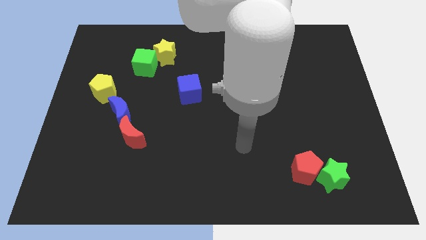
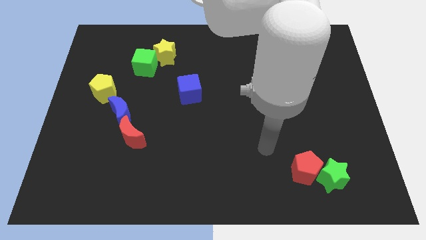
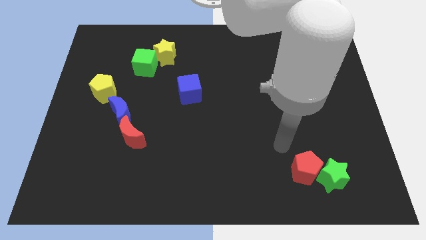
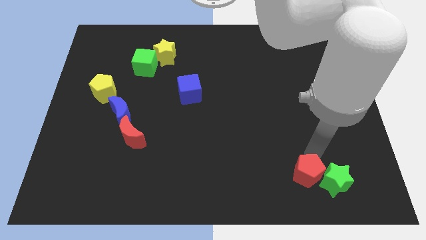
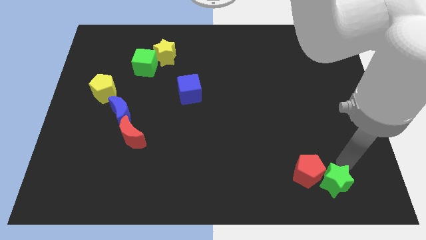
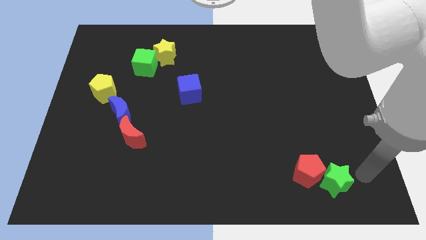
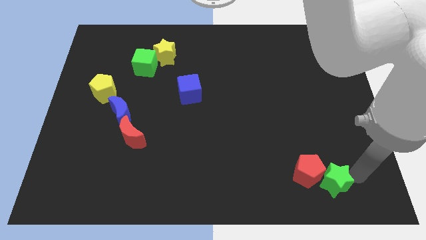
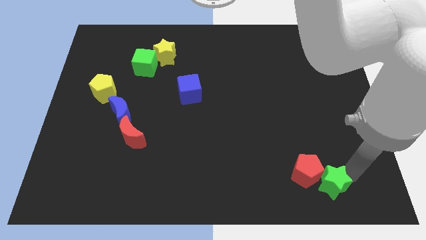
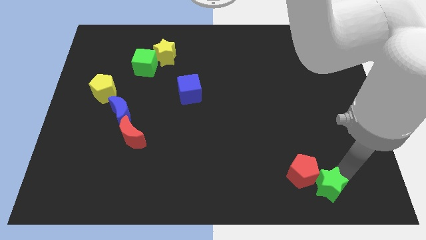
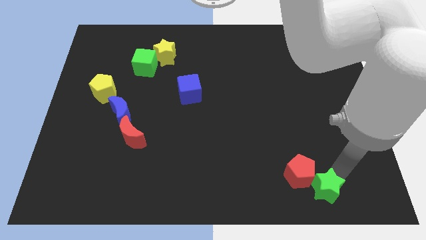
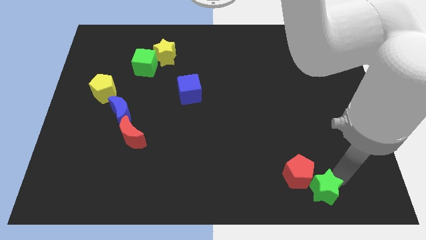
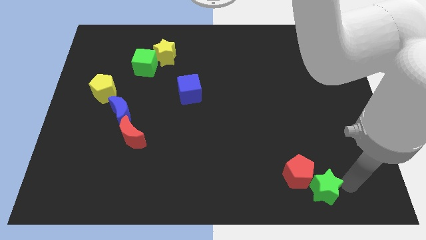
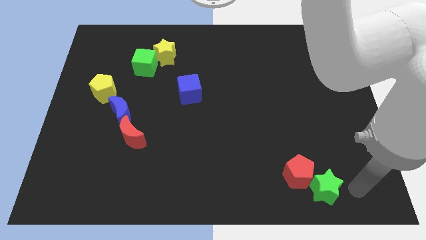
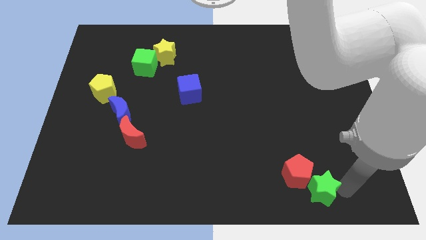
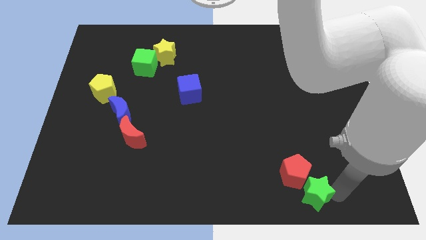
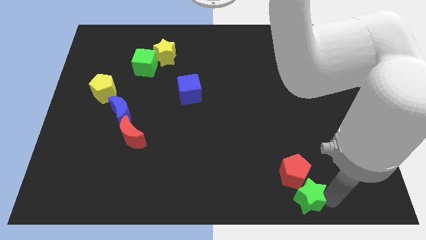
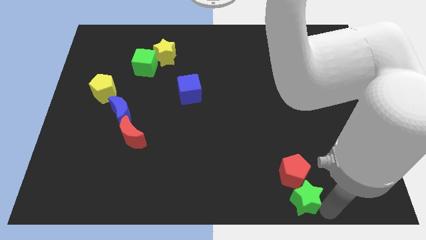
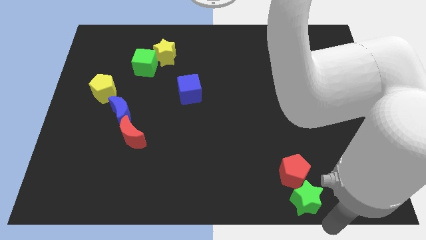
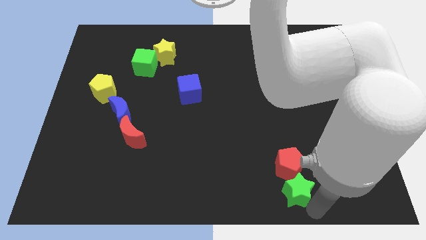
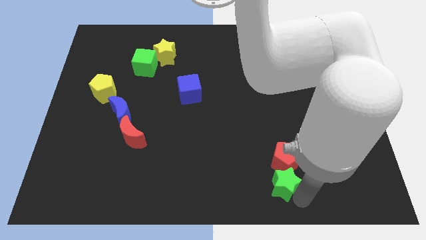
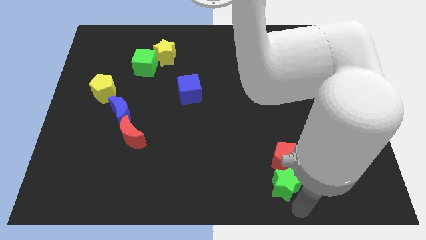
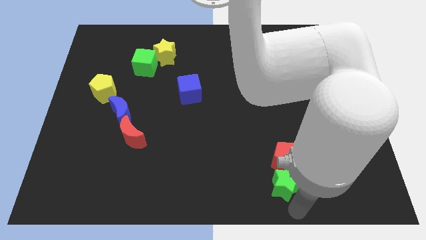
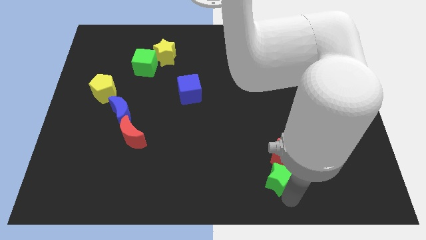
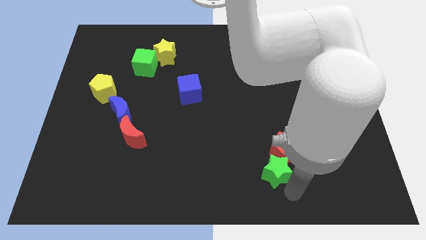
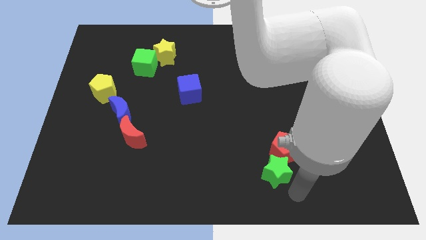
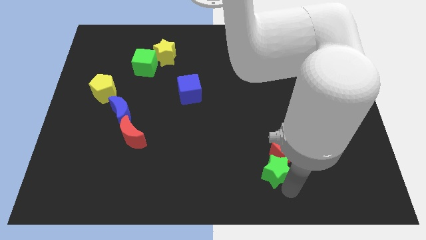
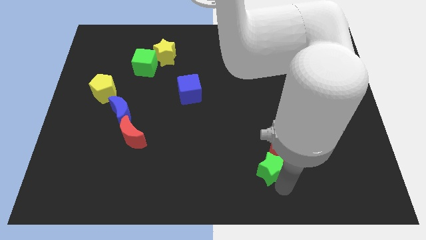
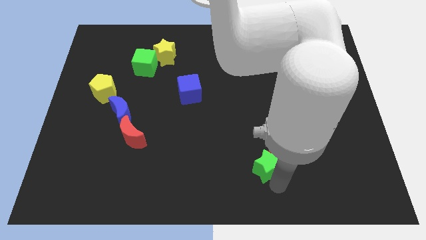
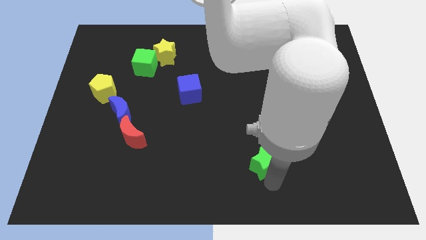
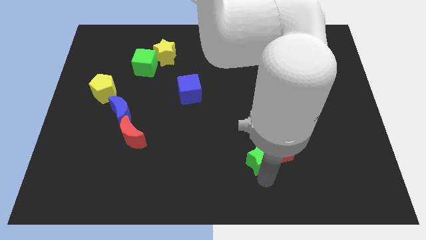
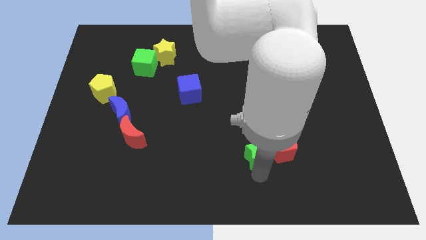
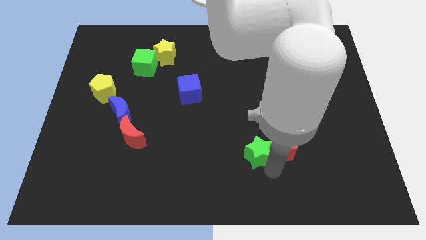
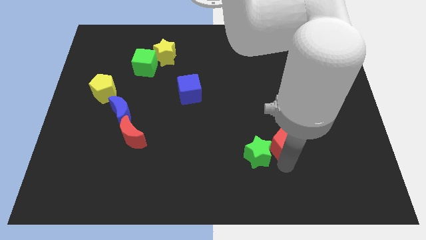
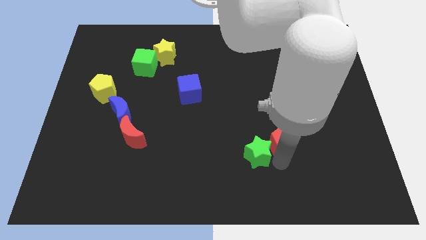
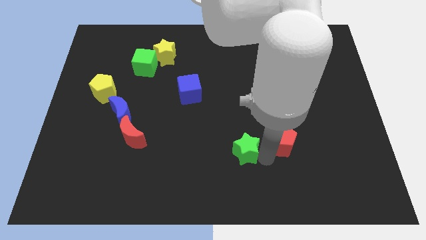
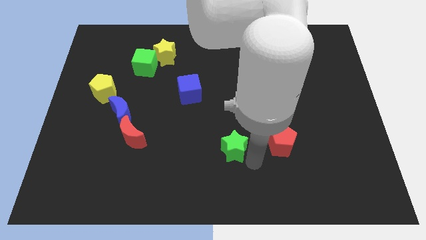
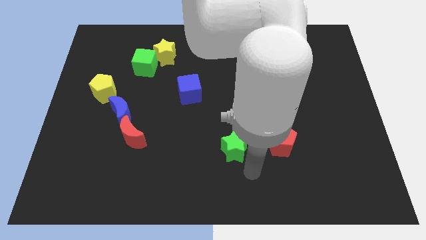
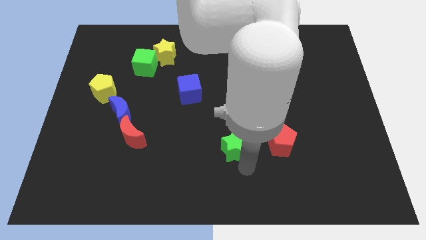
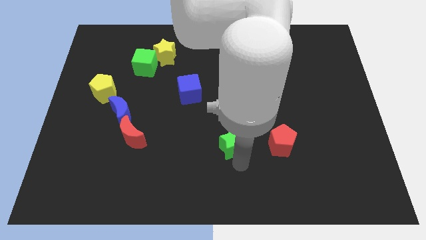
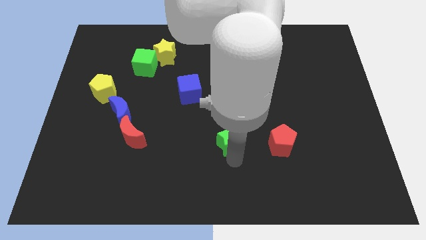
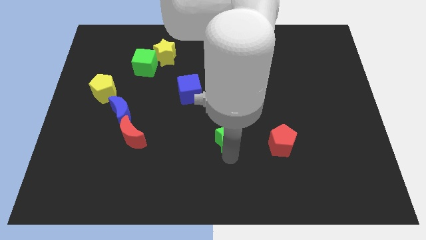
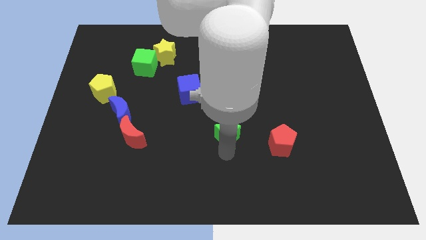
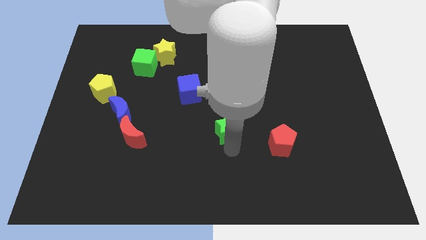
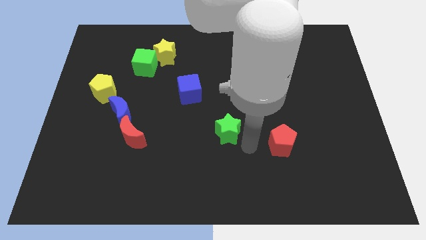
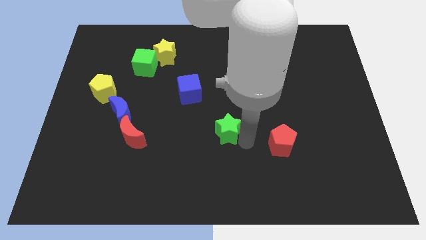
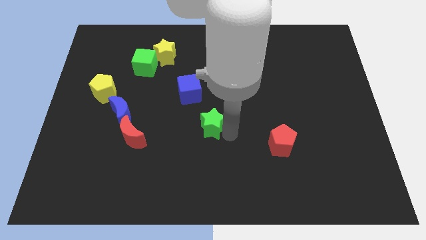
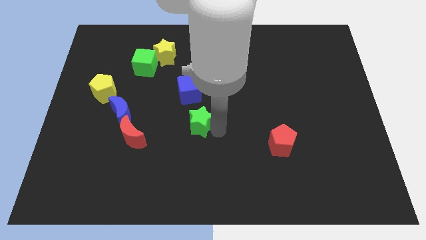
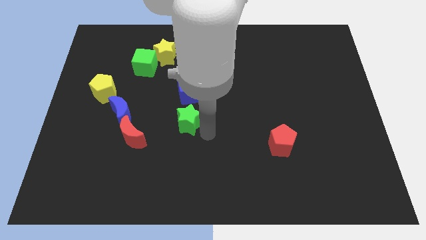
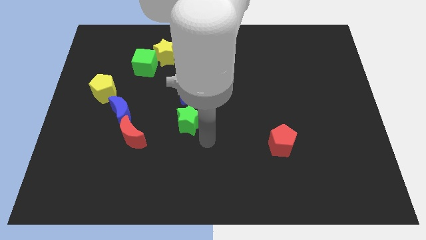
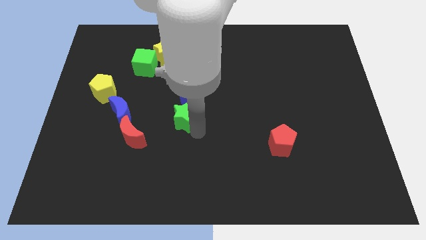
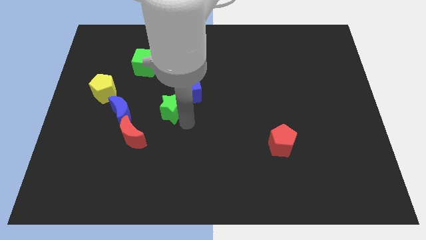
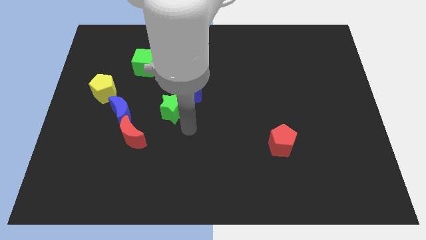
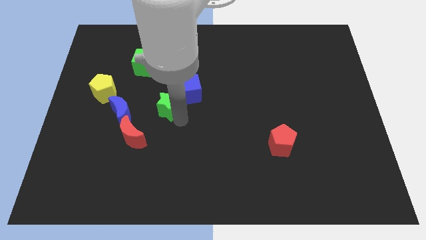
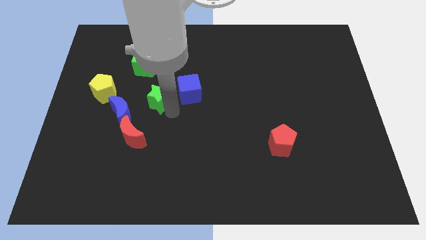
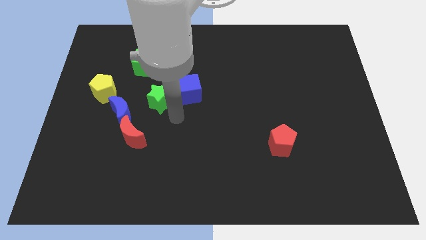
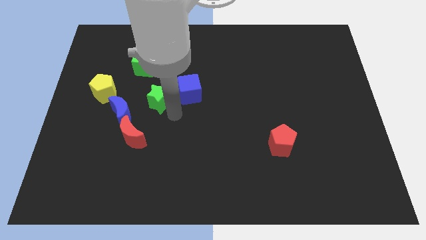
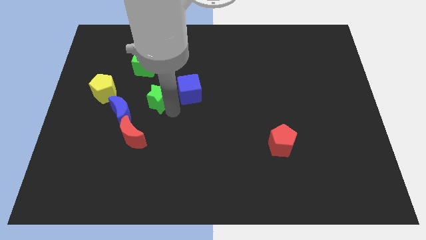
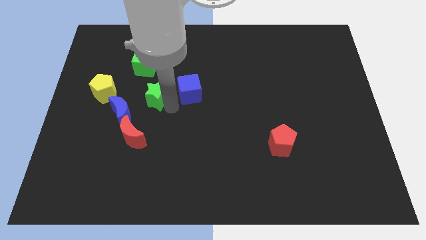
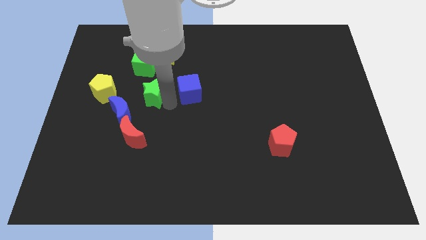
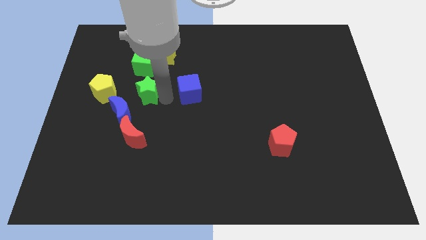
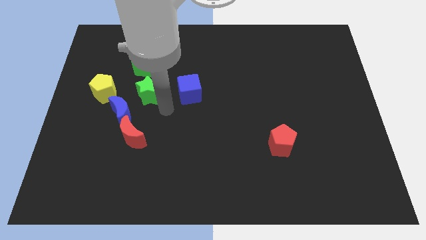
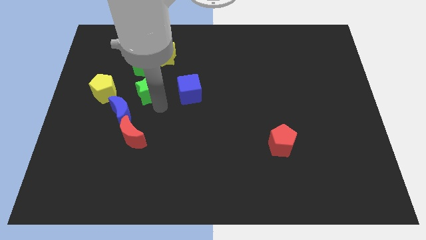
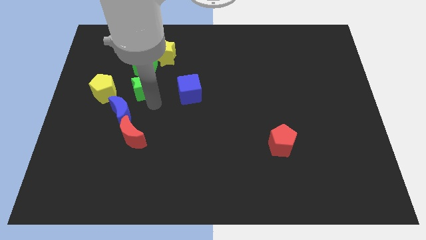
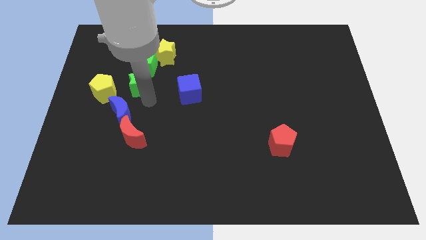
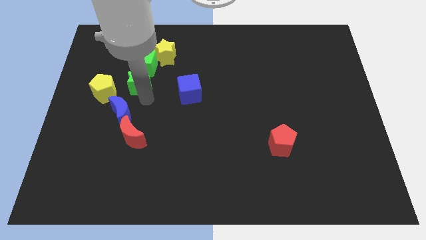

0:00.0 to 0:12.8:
slide the green star to the top right side of the yellow pentagon

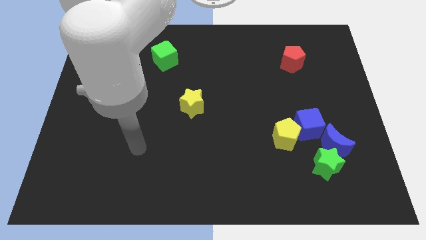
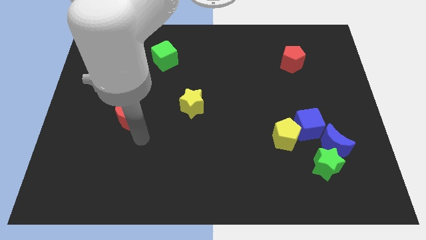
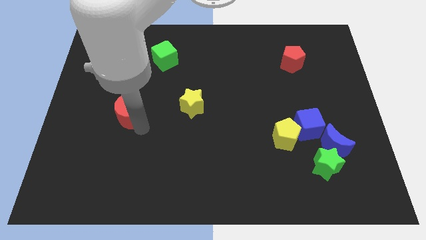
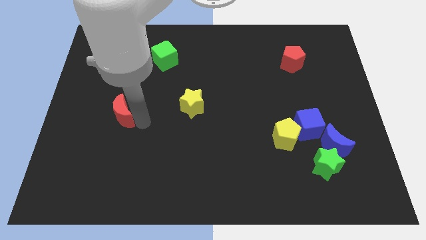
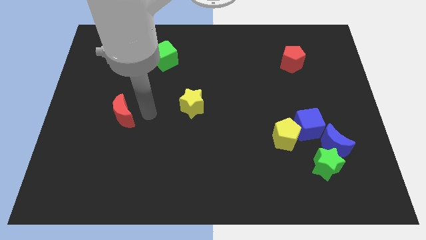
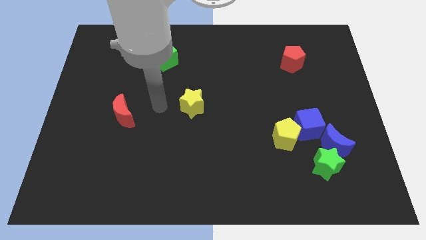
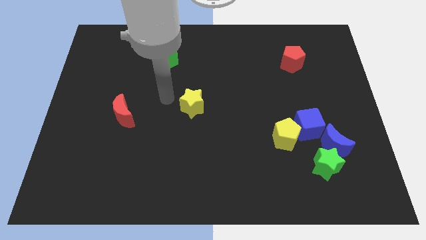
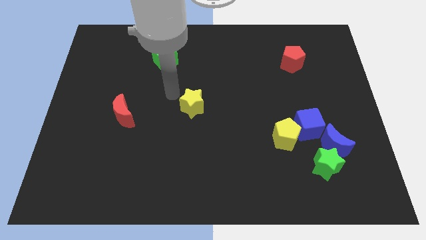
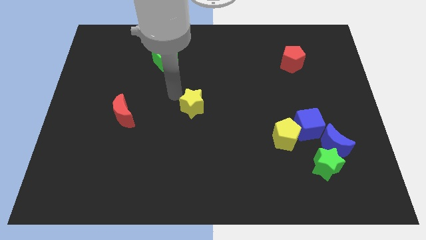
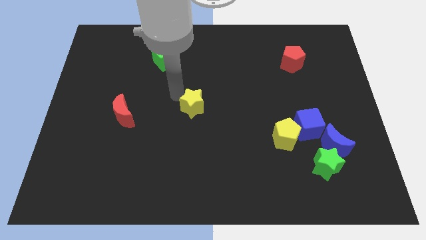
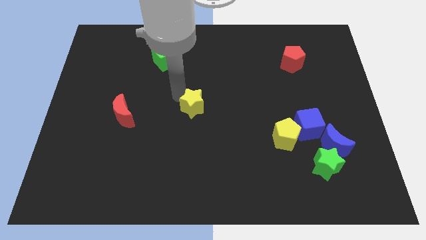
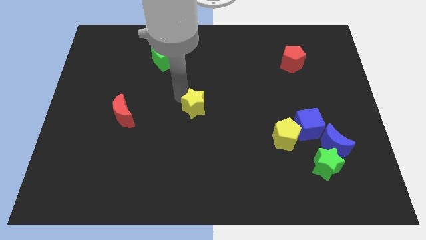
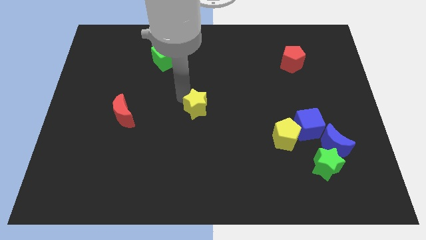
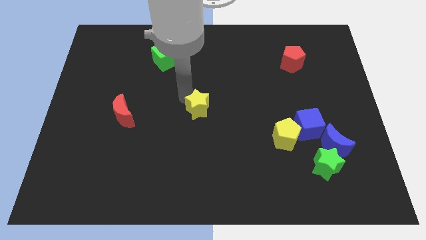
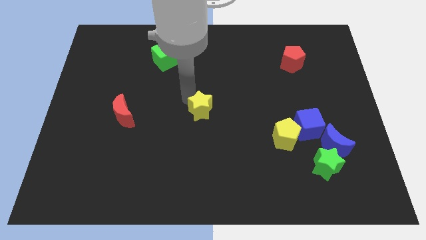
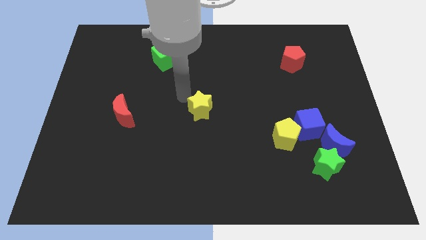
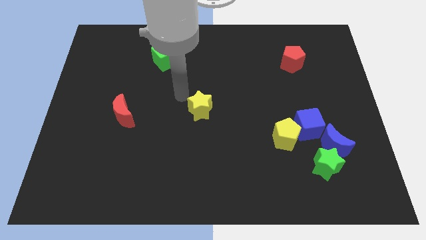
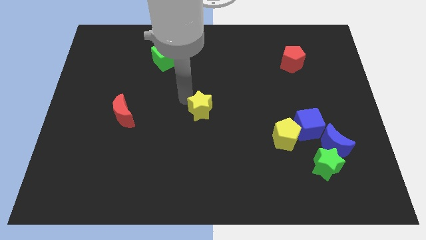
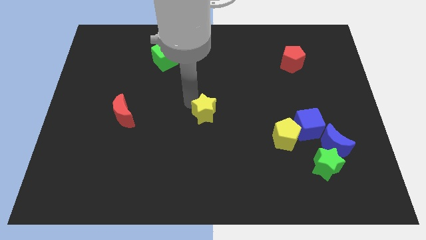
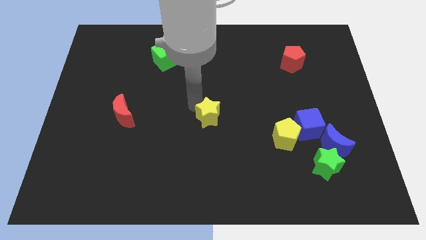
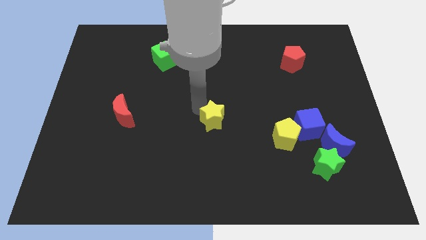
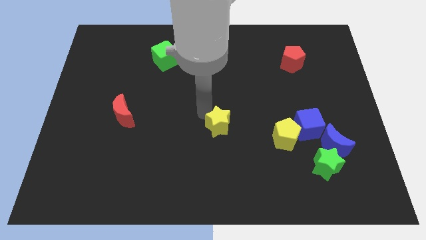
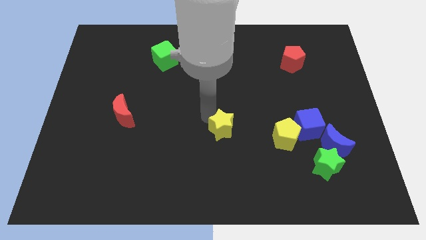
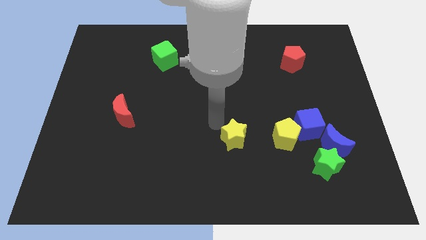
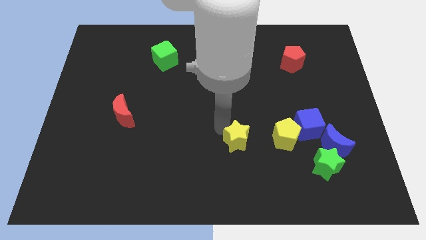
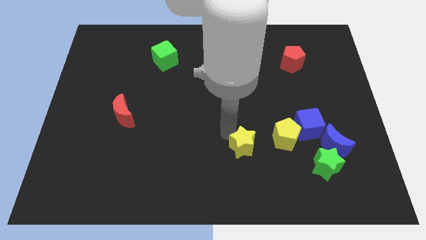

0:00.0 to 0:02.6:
push the yellow star to the bottom left of the yellow pentagon
